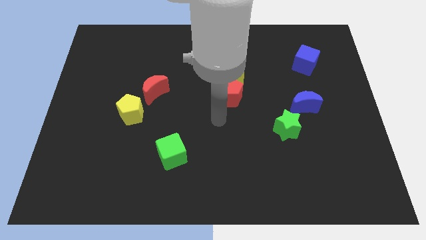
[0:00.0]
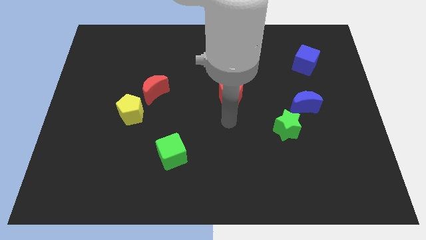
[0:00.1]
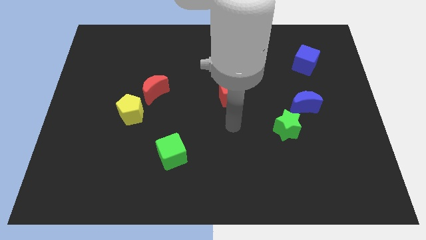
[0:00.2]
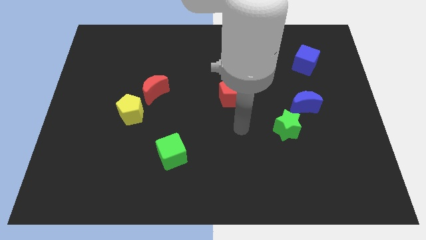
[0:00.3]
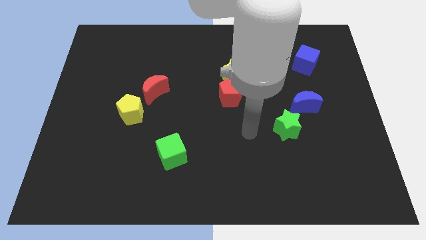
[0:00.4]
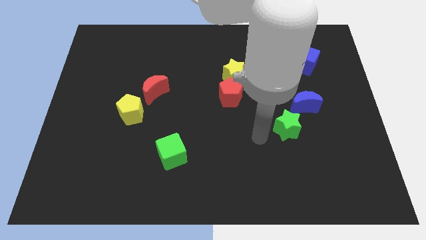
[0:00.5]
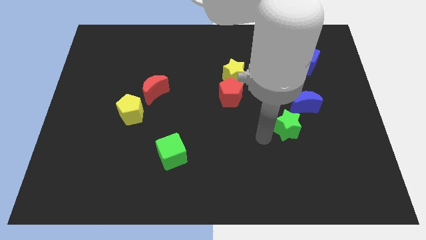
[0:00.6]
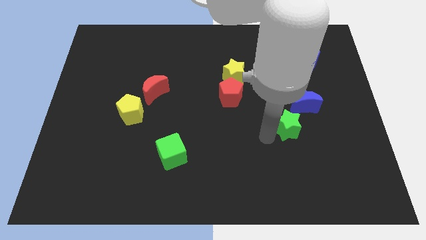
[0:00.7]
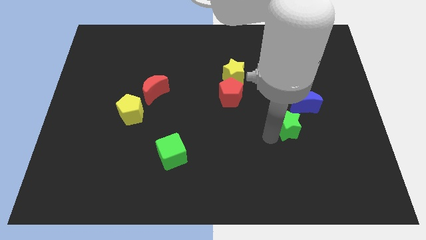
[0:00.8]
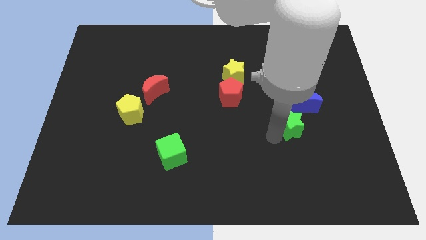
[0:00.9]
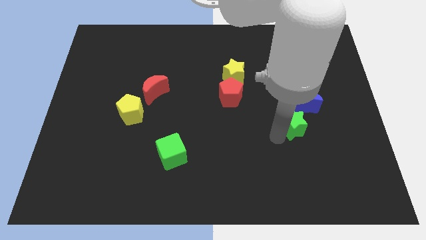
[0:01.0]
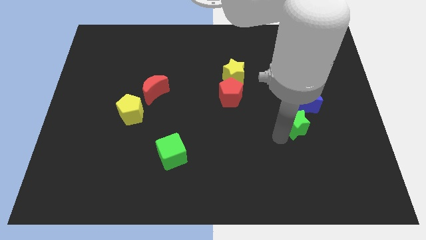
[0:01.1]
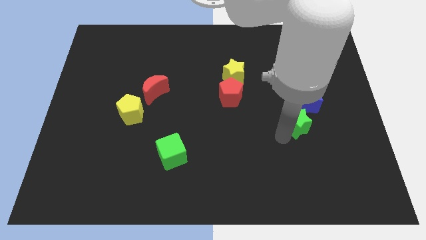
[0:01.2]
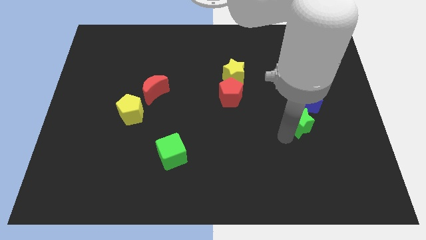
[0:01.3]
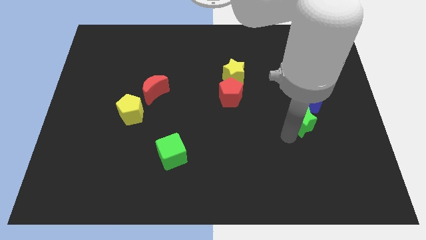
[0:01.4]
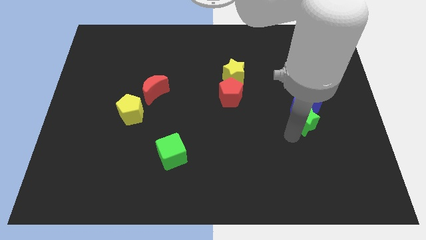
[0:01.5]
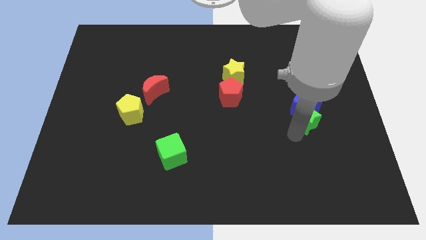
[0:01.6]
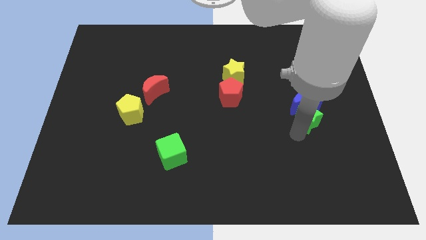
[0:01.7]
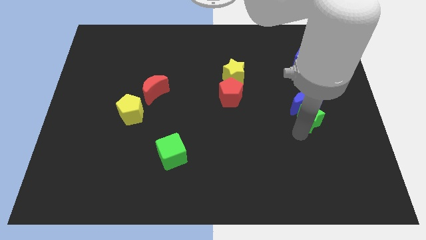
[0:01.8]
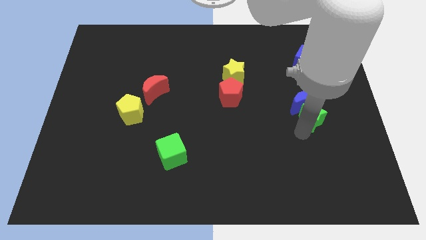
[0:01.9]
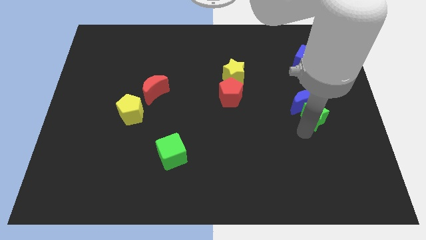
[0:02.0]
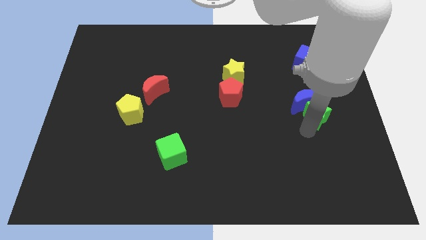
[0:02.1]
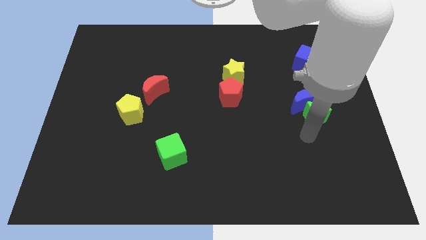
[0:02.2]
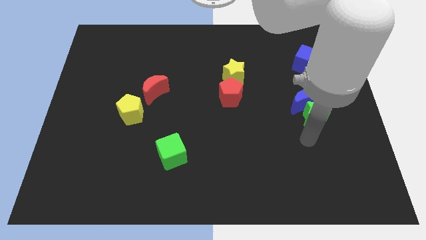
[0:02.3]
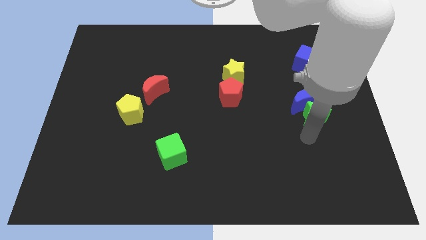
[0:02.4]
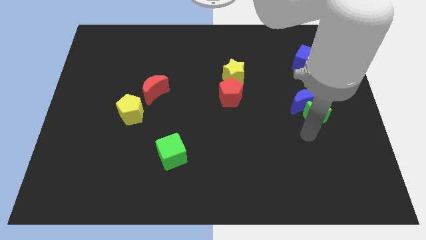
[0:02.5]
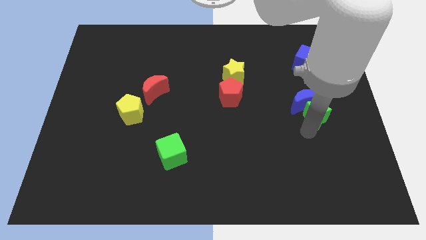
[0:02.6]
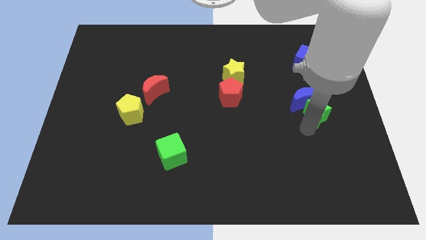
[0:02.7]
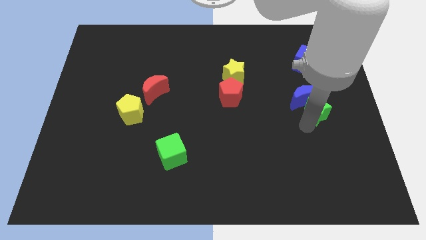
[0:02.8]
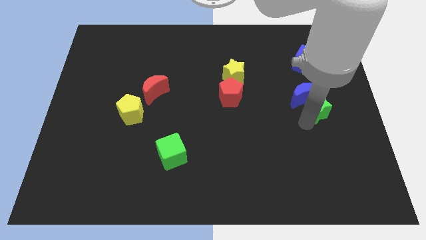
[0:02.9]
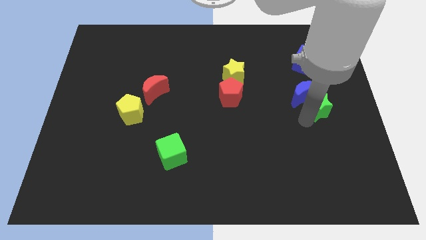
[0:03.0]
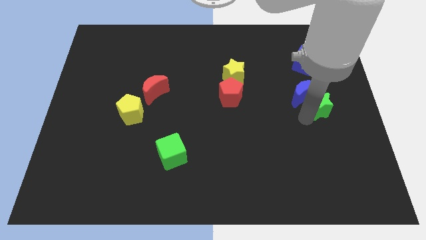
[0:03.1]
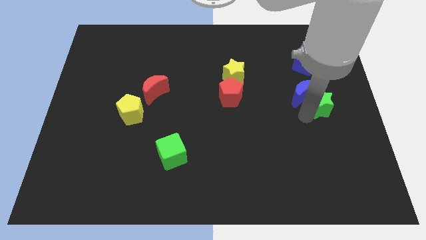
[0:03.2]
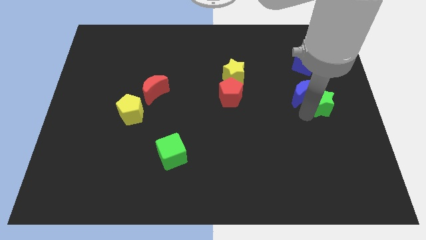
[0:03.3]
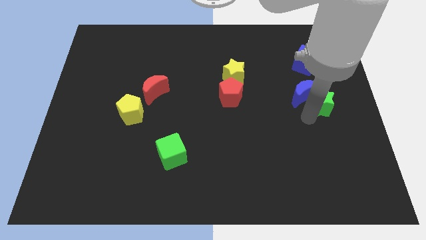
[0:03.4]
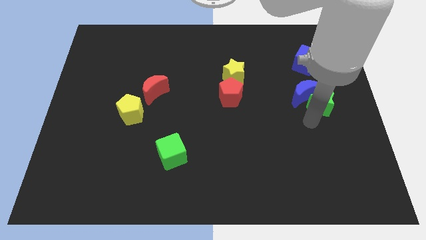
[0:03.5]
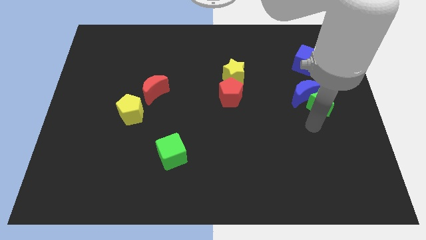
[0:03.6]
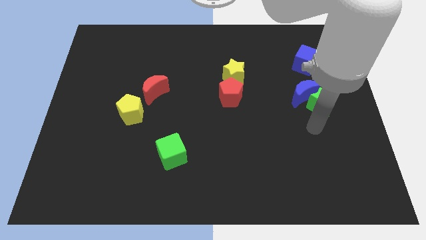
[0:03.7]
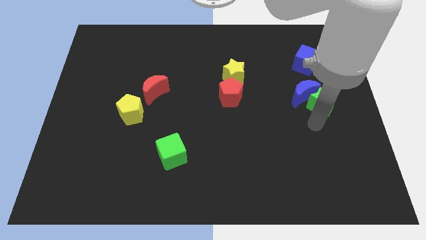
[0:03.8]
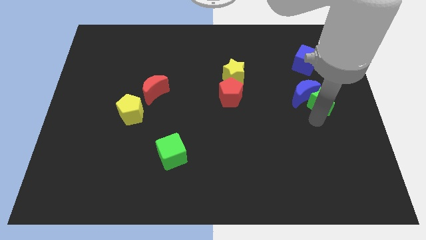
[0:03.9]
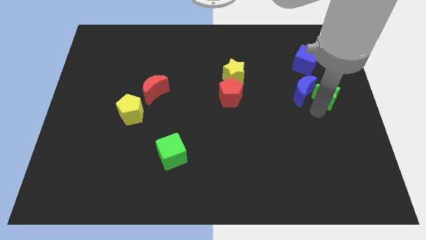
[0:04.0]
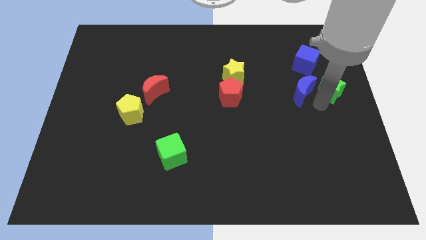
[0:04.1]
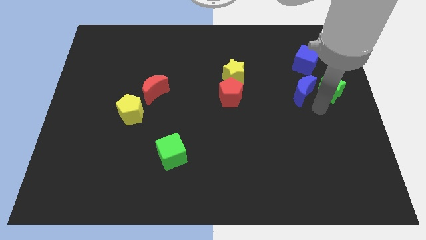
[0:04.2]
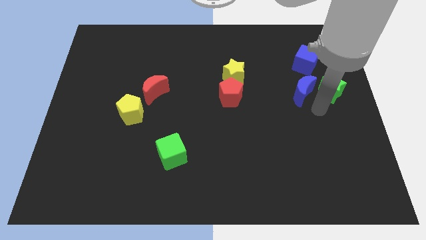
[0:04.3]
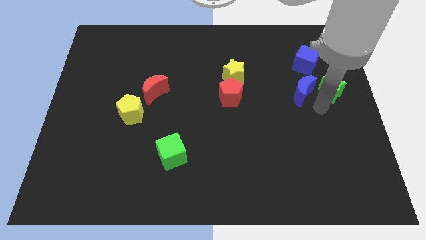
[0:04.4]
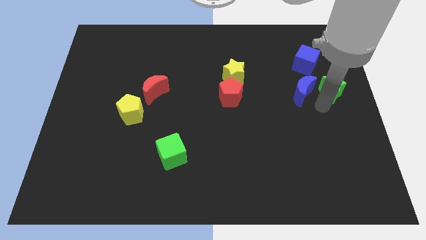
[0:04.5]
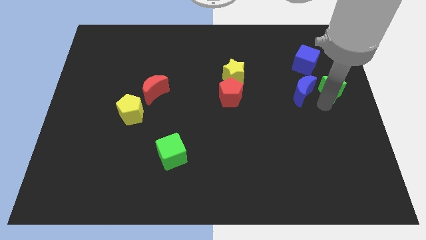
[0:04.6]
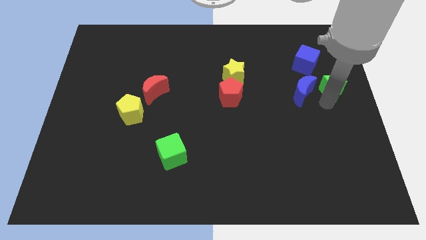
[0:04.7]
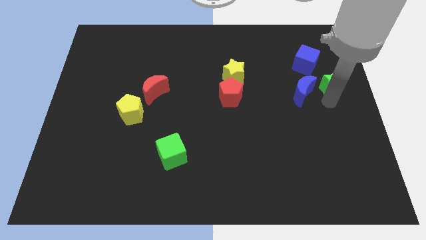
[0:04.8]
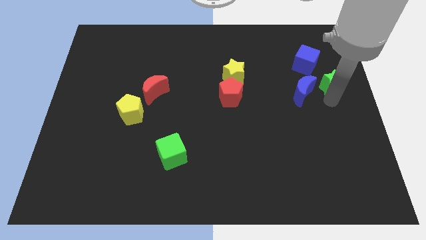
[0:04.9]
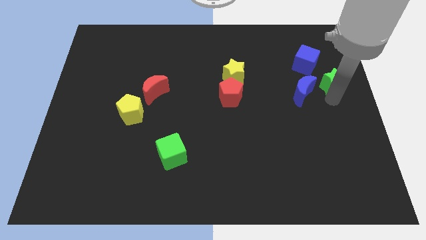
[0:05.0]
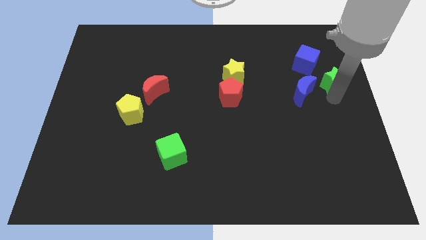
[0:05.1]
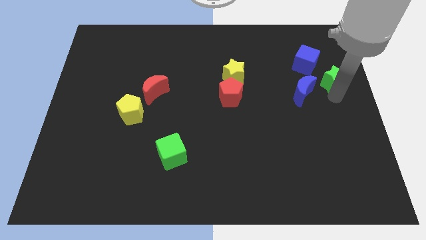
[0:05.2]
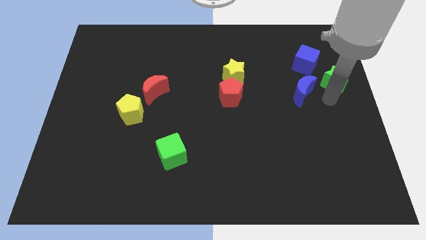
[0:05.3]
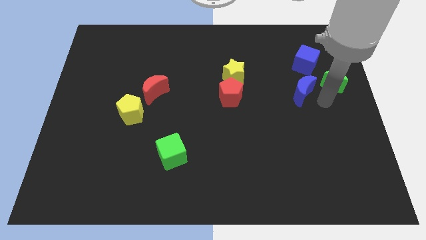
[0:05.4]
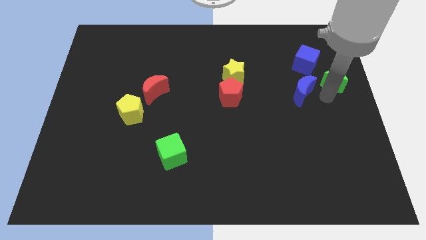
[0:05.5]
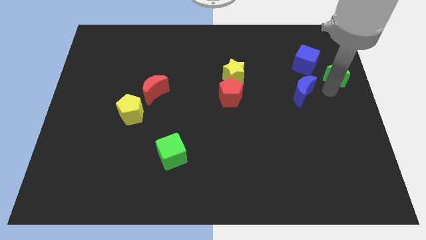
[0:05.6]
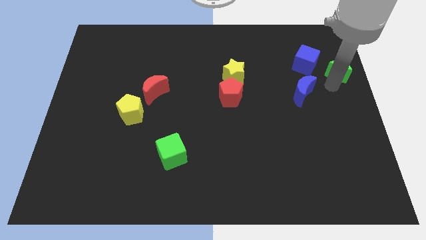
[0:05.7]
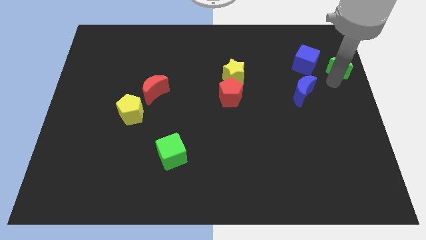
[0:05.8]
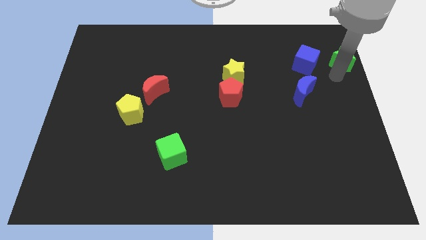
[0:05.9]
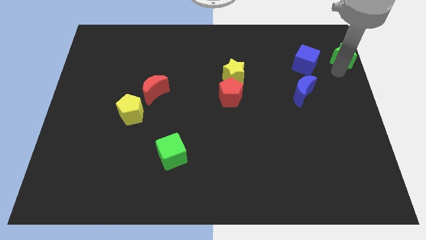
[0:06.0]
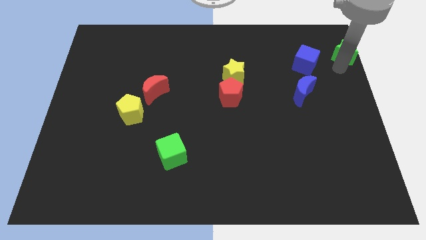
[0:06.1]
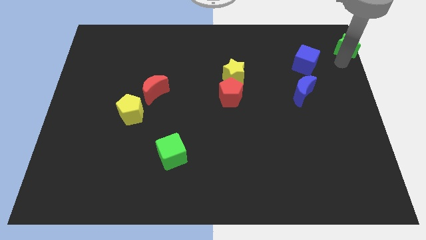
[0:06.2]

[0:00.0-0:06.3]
move the green star to the top right corner

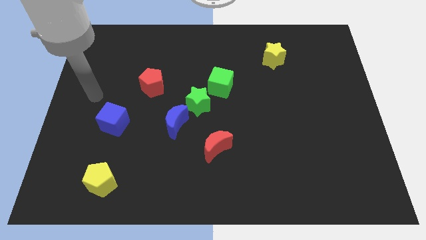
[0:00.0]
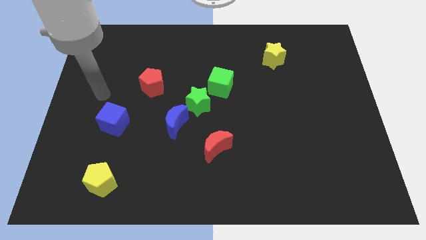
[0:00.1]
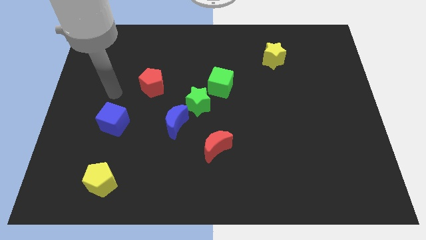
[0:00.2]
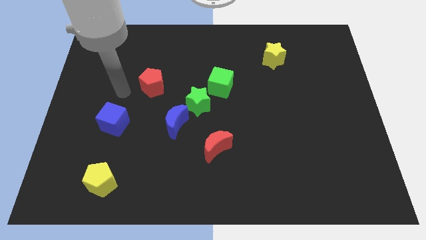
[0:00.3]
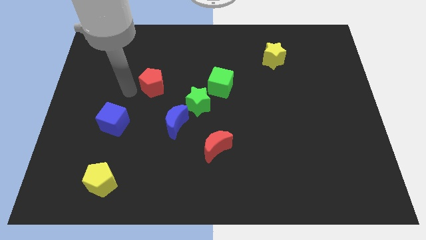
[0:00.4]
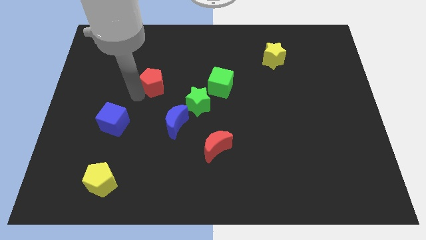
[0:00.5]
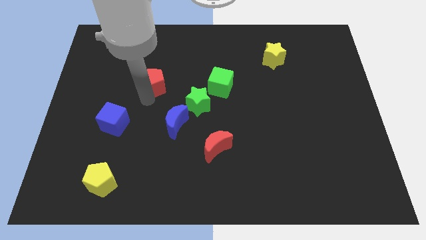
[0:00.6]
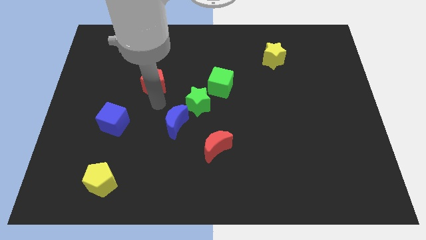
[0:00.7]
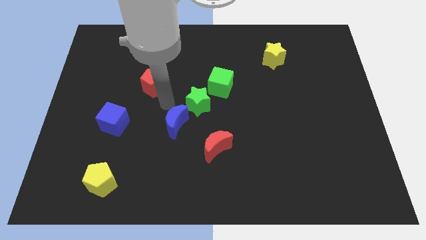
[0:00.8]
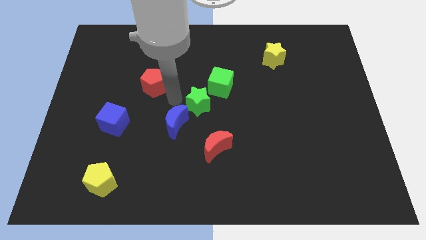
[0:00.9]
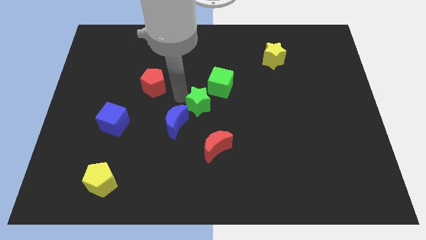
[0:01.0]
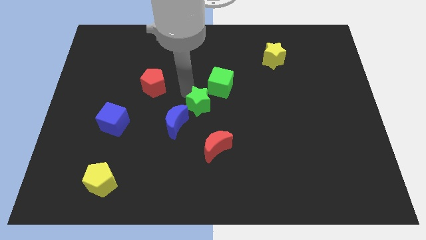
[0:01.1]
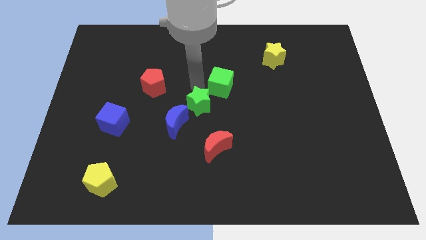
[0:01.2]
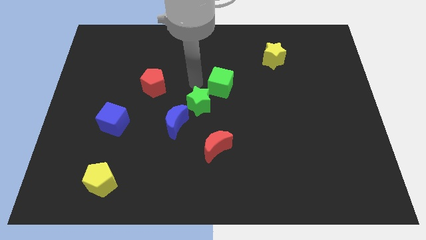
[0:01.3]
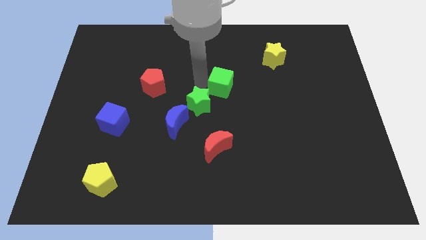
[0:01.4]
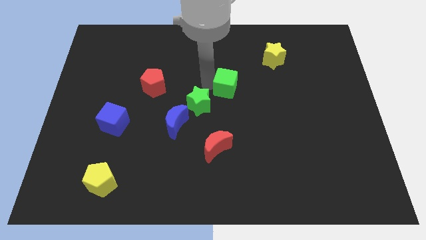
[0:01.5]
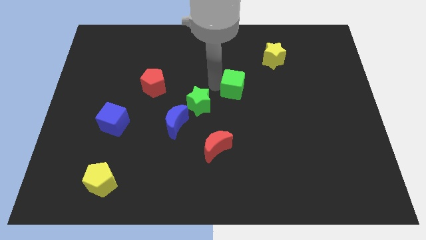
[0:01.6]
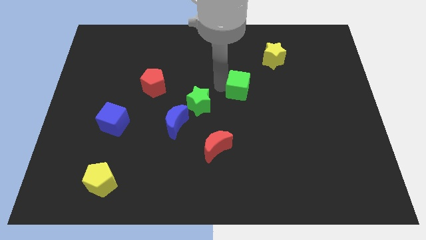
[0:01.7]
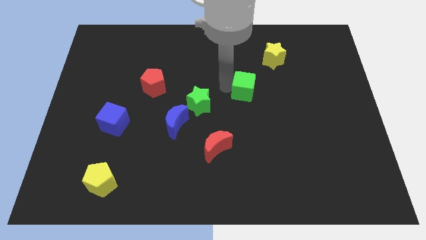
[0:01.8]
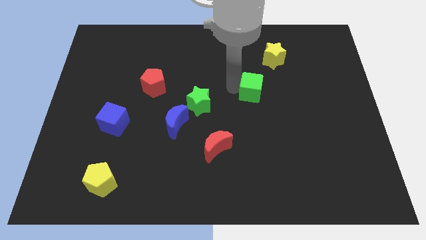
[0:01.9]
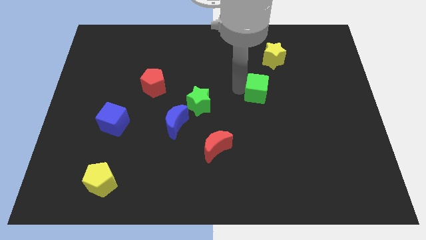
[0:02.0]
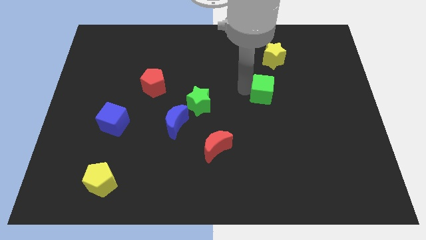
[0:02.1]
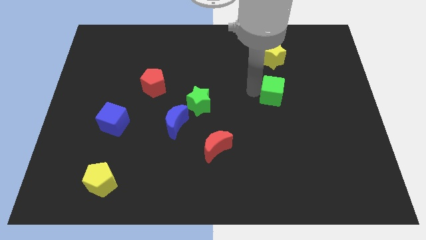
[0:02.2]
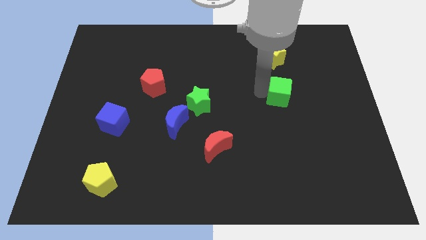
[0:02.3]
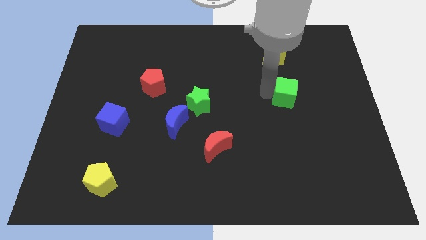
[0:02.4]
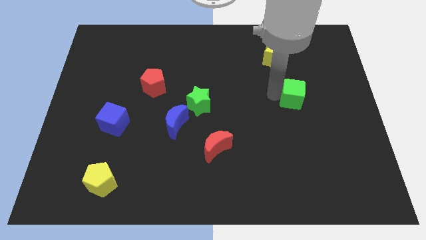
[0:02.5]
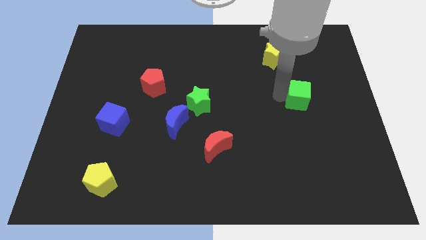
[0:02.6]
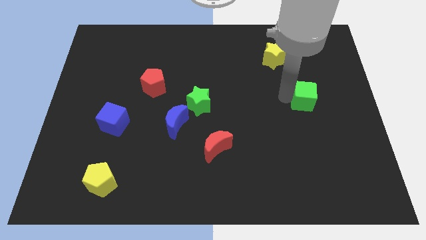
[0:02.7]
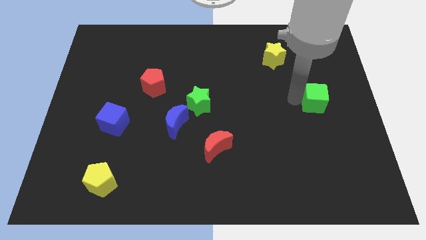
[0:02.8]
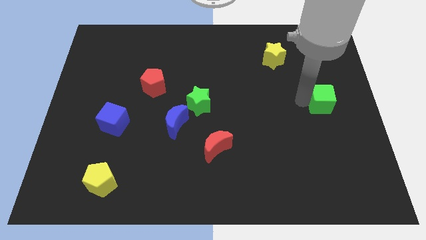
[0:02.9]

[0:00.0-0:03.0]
slide the green cube to the center right
